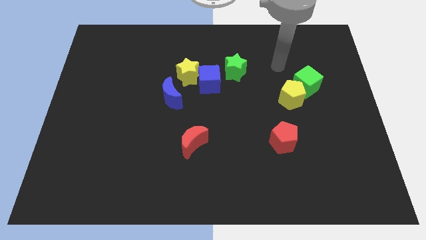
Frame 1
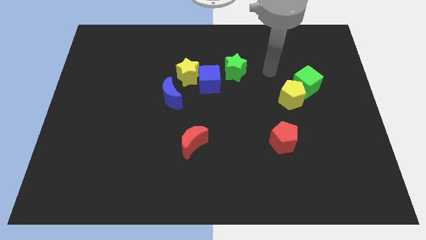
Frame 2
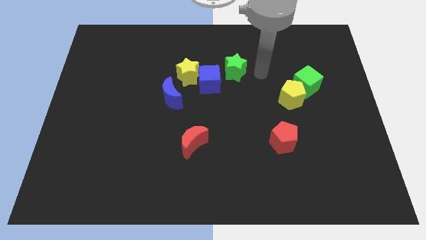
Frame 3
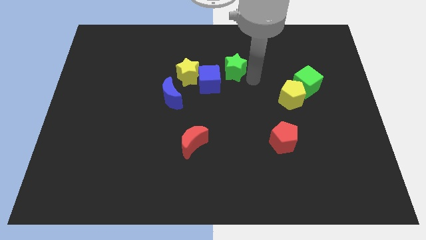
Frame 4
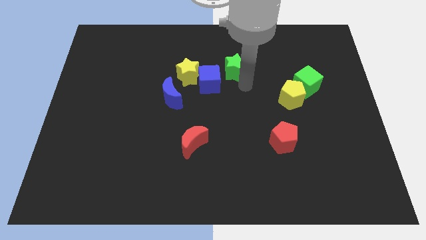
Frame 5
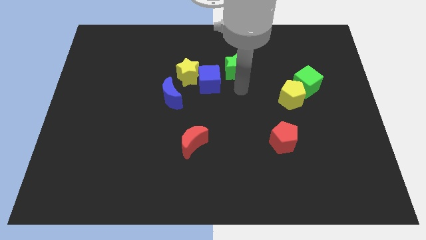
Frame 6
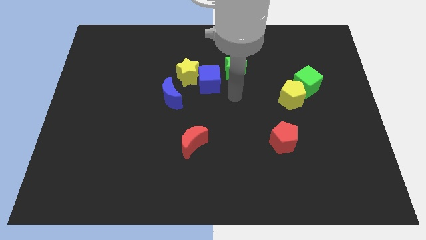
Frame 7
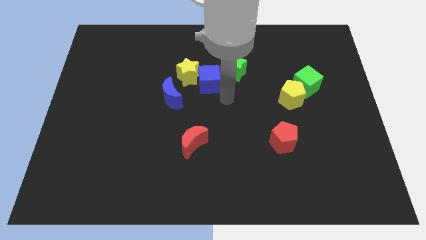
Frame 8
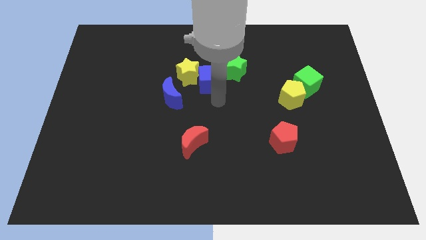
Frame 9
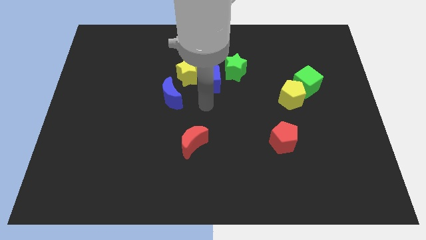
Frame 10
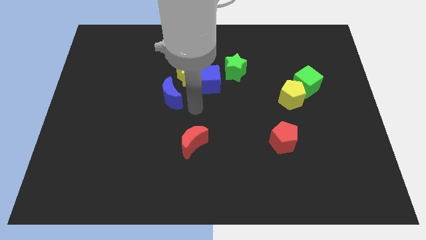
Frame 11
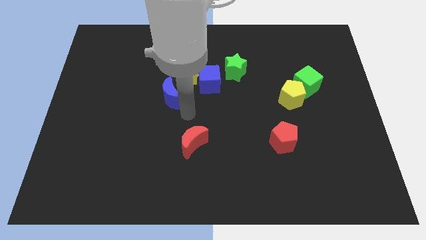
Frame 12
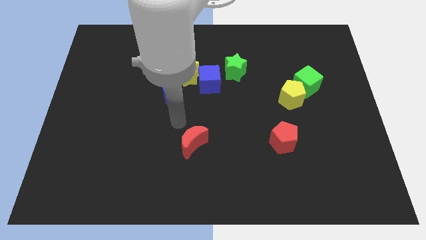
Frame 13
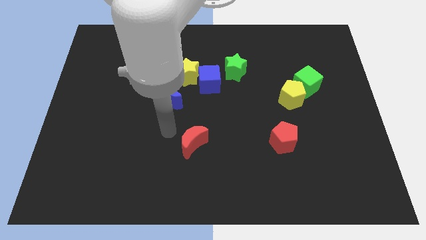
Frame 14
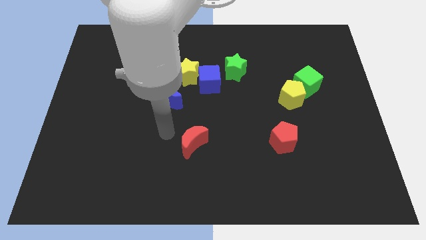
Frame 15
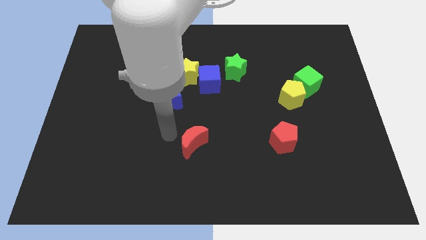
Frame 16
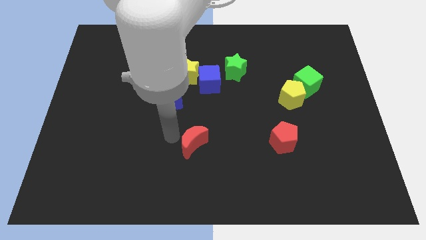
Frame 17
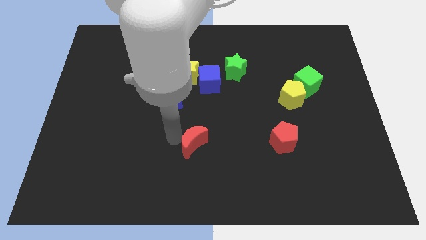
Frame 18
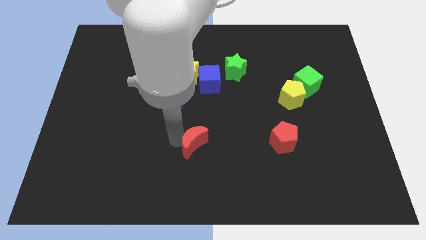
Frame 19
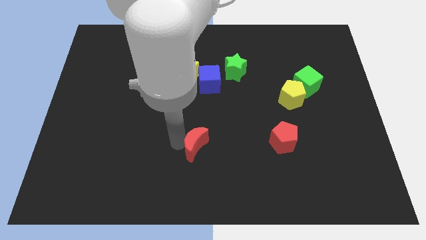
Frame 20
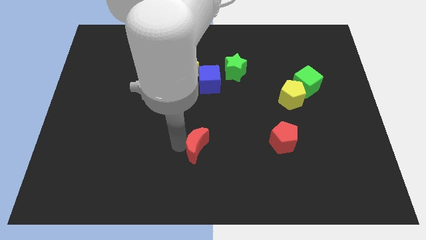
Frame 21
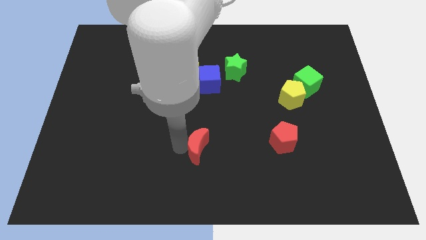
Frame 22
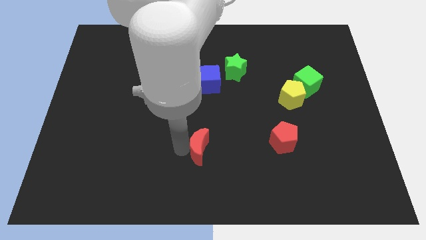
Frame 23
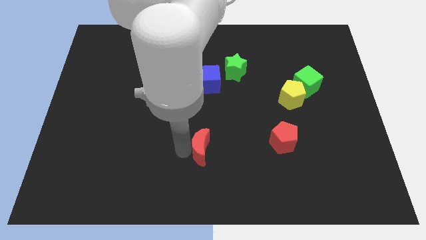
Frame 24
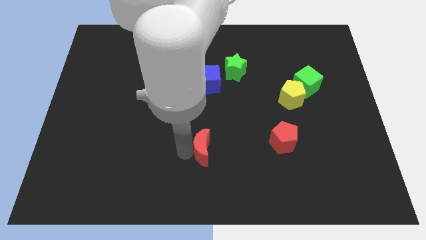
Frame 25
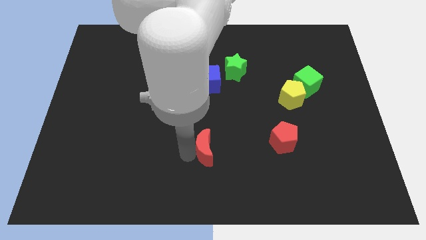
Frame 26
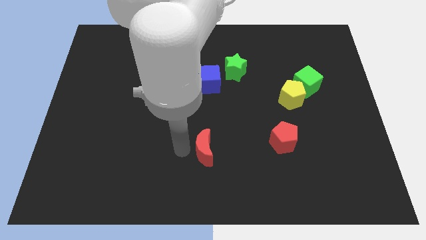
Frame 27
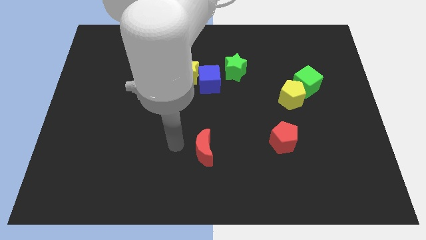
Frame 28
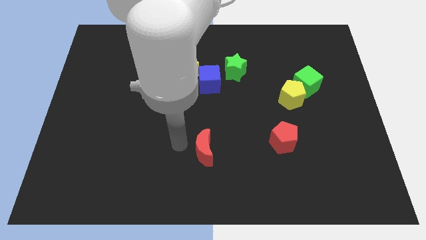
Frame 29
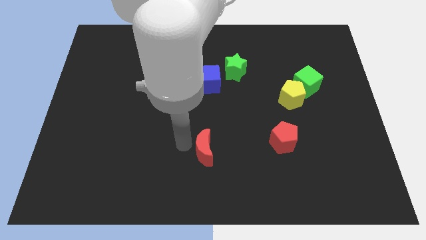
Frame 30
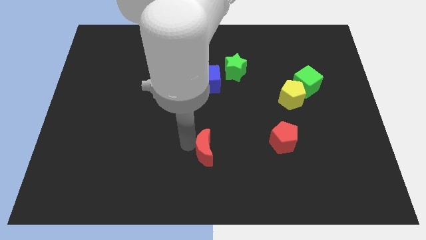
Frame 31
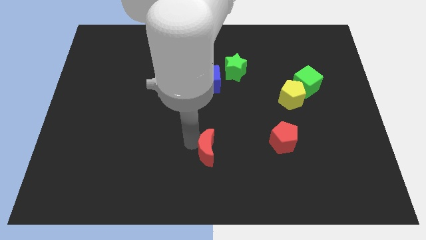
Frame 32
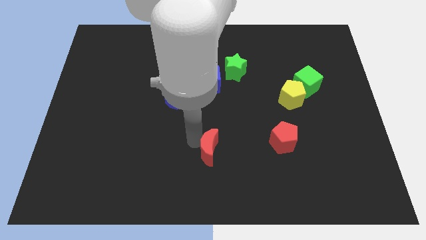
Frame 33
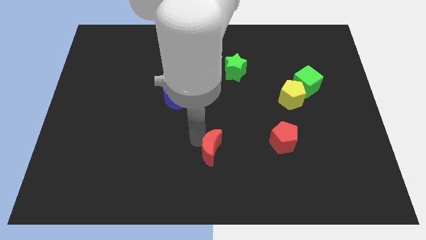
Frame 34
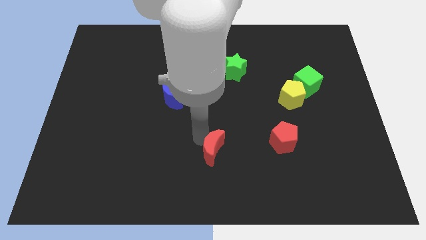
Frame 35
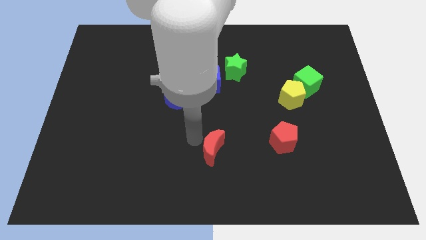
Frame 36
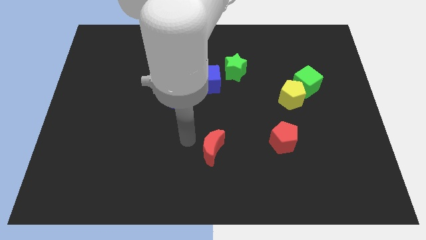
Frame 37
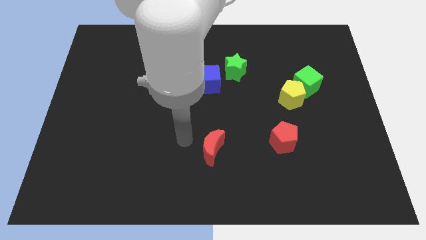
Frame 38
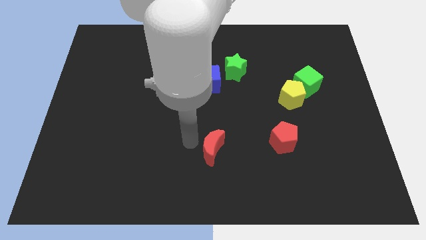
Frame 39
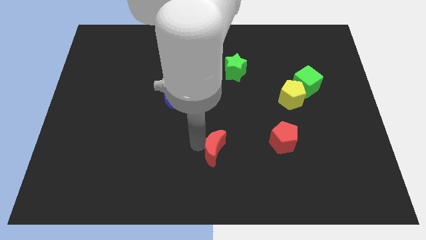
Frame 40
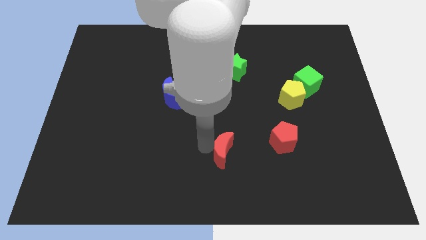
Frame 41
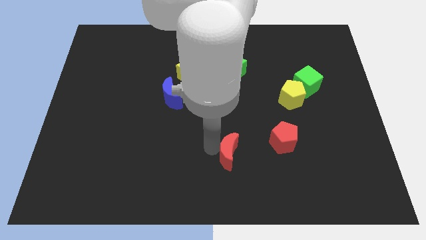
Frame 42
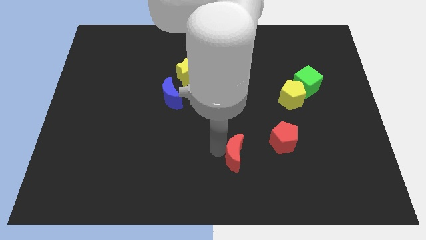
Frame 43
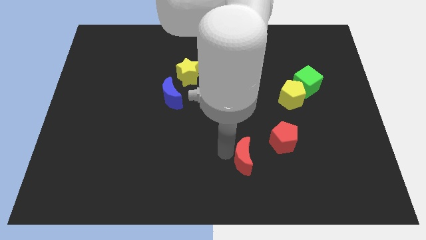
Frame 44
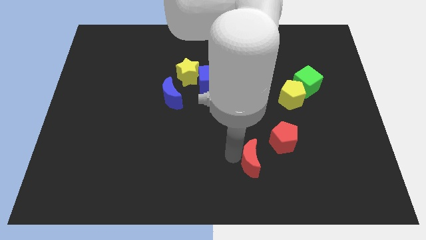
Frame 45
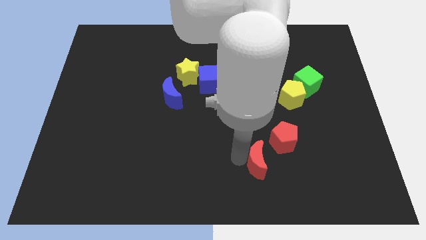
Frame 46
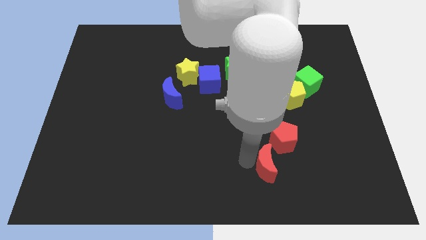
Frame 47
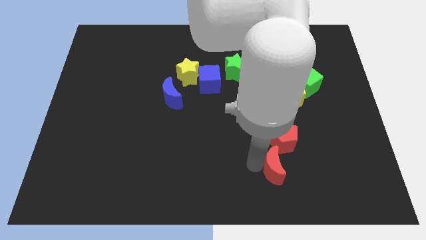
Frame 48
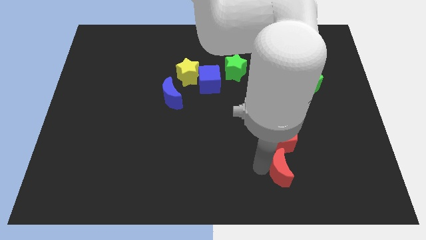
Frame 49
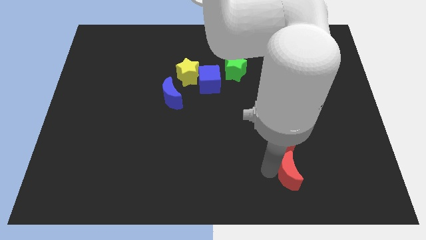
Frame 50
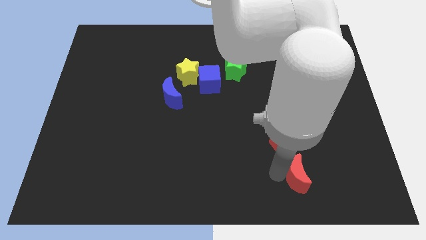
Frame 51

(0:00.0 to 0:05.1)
put the red moon to the bottom right side of the red pentagon

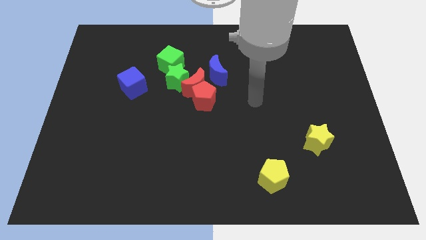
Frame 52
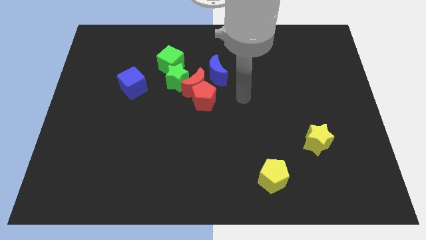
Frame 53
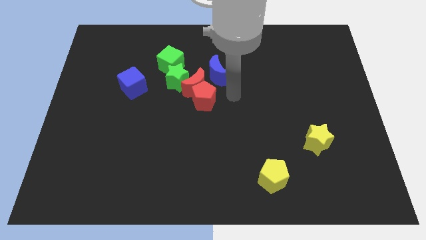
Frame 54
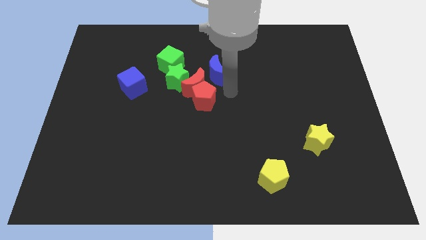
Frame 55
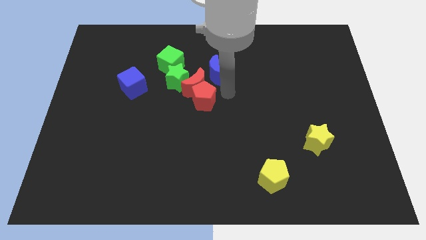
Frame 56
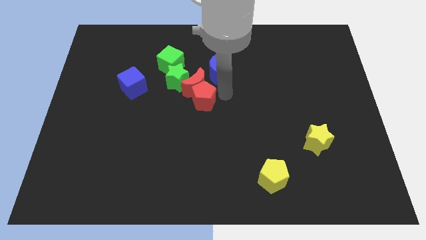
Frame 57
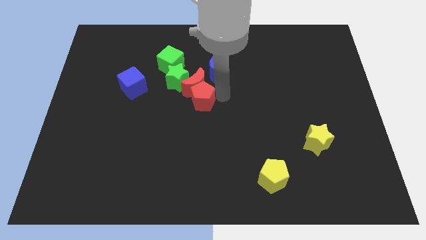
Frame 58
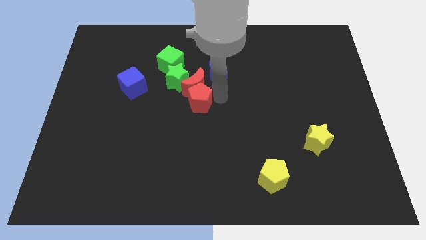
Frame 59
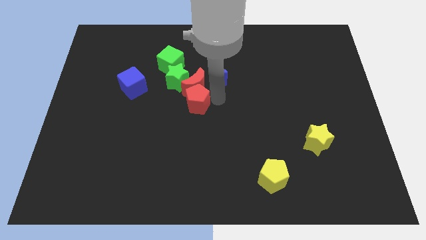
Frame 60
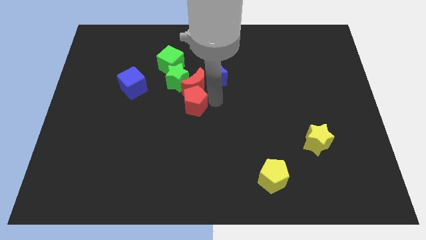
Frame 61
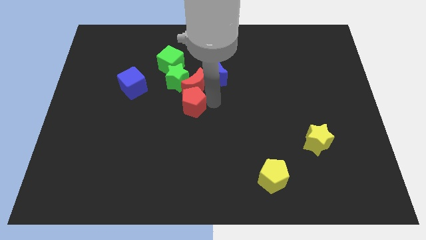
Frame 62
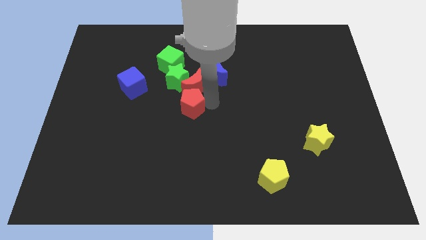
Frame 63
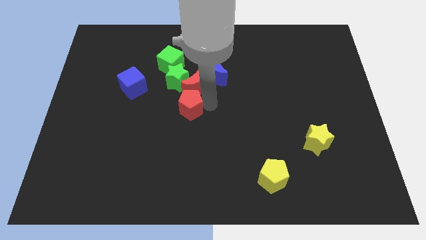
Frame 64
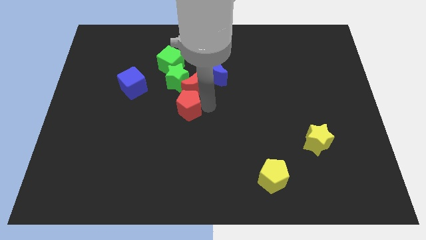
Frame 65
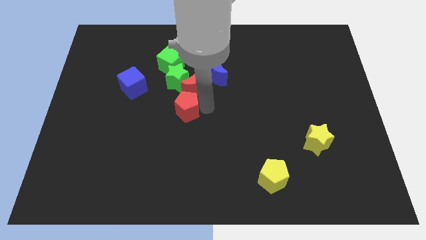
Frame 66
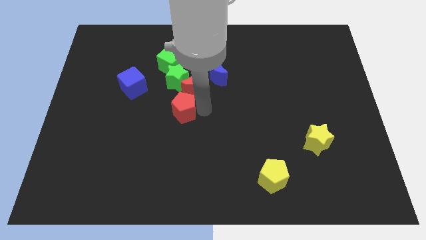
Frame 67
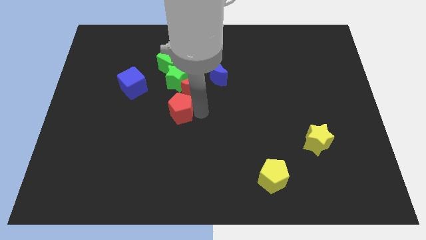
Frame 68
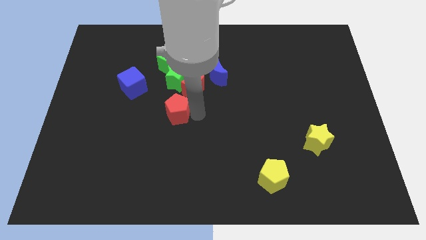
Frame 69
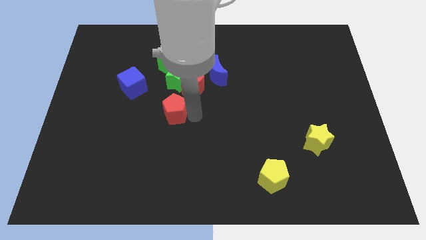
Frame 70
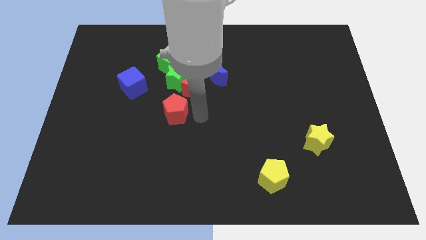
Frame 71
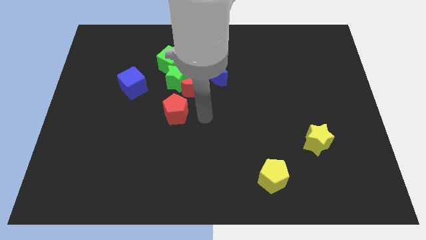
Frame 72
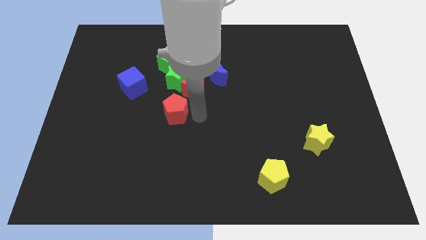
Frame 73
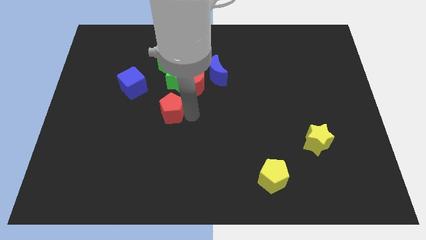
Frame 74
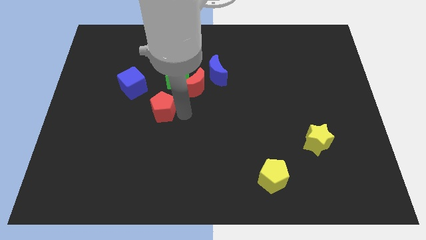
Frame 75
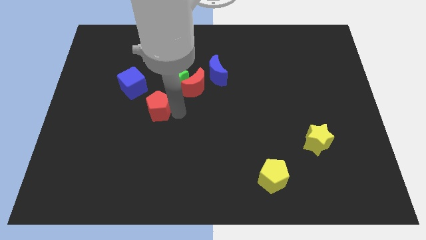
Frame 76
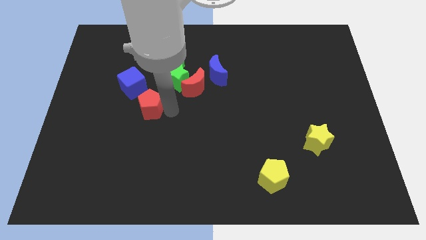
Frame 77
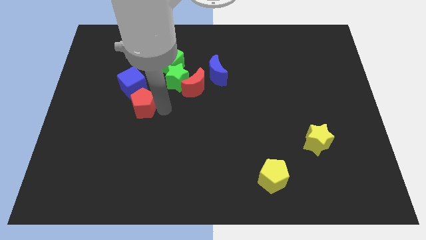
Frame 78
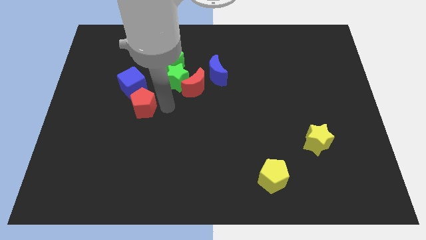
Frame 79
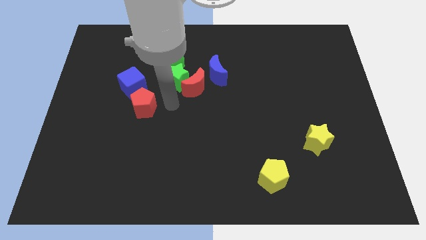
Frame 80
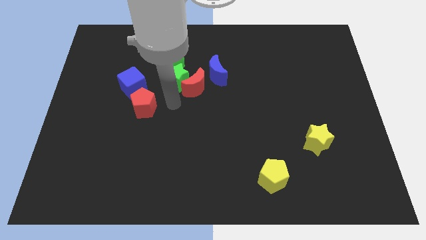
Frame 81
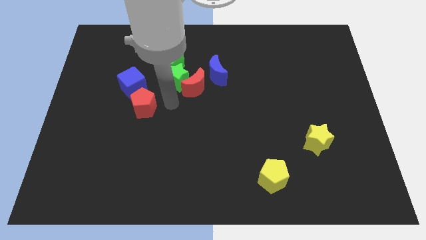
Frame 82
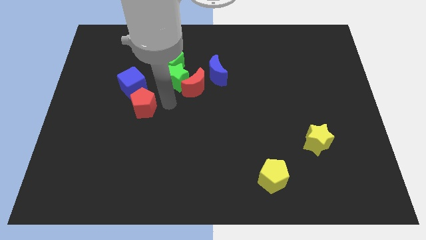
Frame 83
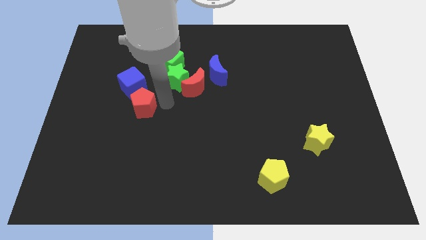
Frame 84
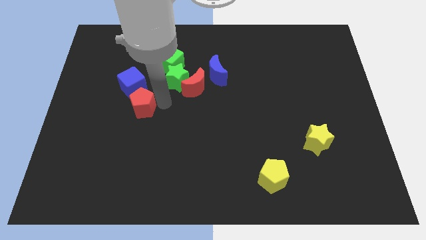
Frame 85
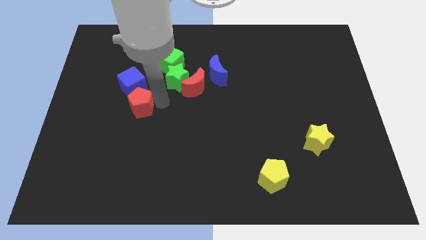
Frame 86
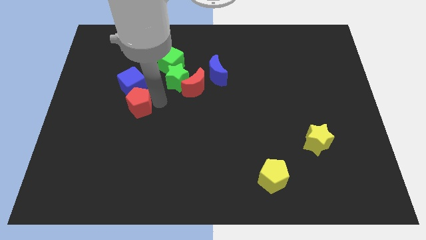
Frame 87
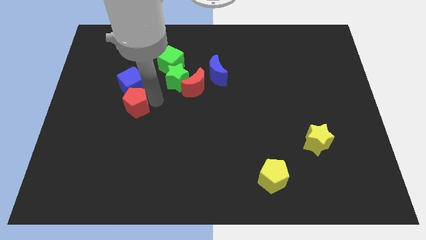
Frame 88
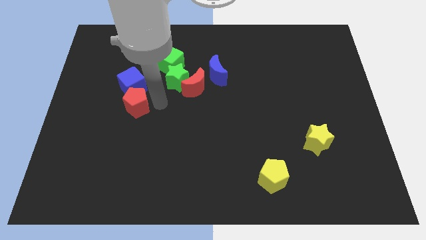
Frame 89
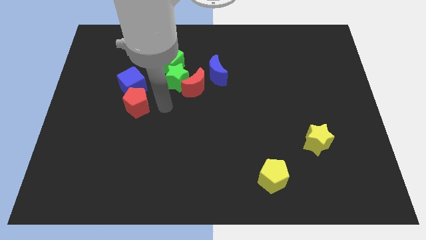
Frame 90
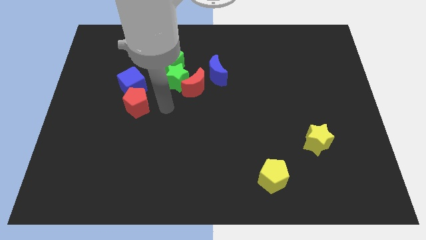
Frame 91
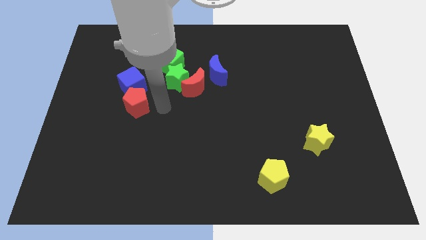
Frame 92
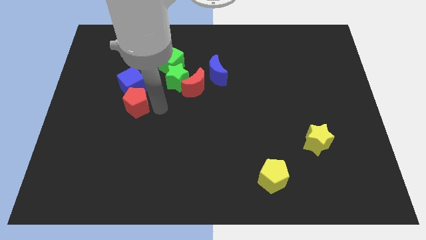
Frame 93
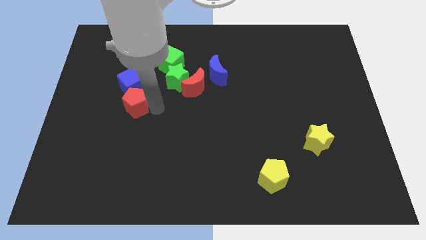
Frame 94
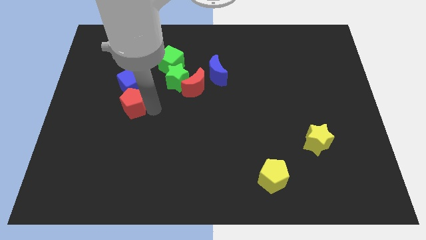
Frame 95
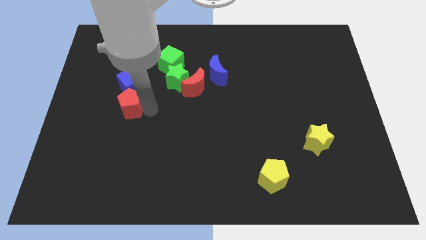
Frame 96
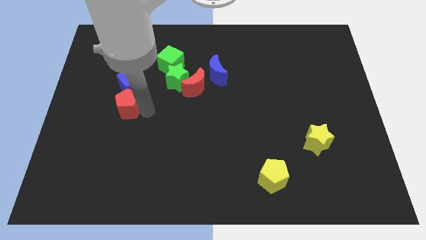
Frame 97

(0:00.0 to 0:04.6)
put the red pentagon diagonally down and to the left of the blue cube
